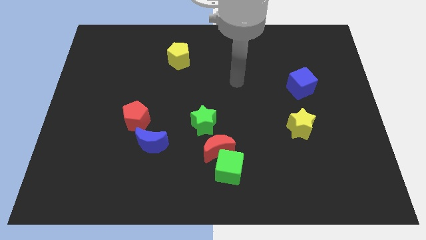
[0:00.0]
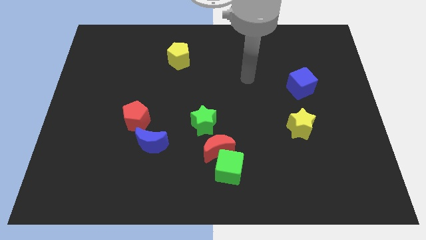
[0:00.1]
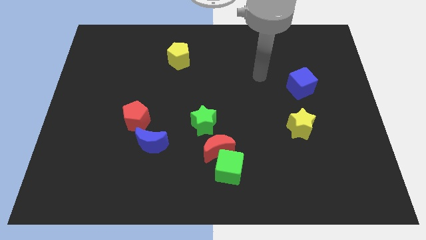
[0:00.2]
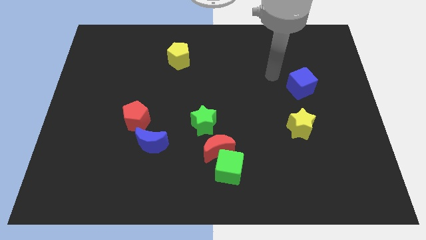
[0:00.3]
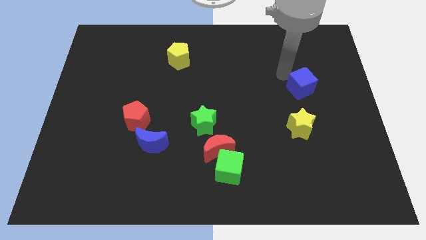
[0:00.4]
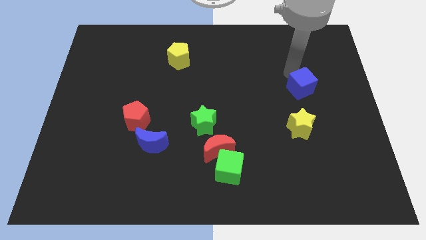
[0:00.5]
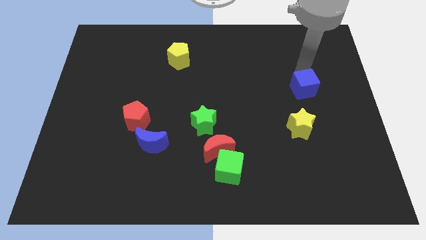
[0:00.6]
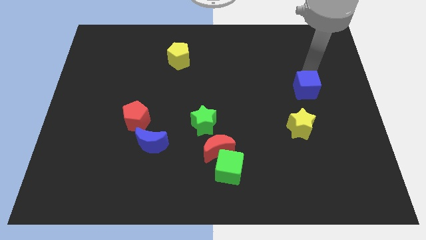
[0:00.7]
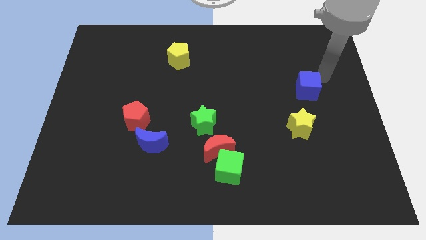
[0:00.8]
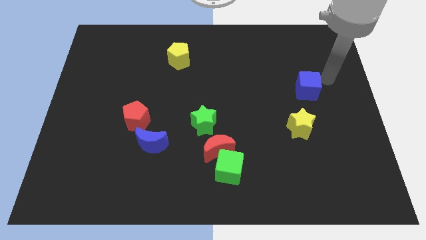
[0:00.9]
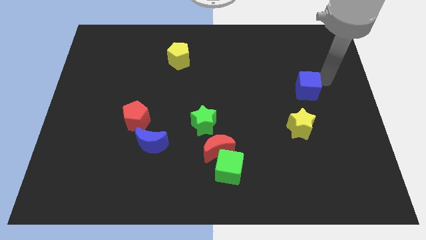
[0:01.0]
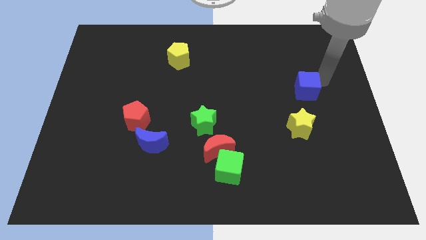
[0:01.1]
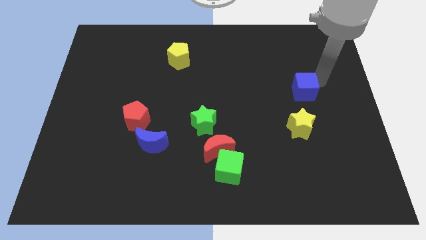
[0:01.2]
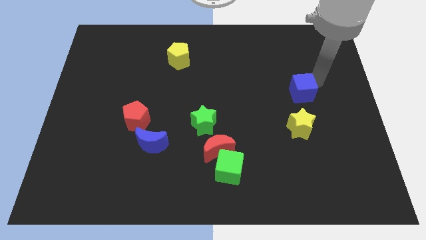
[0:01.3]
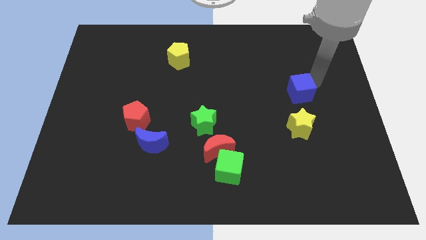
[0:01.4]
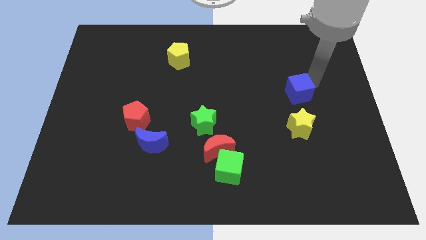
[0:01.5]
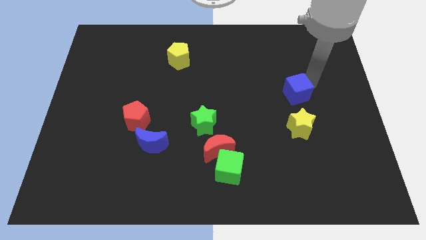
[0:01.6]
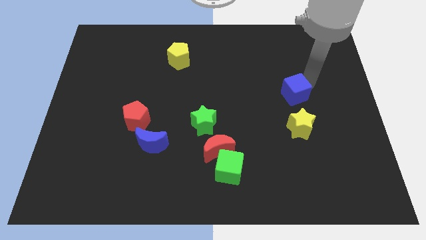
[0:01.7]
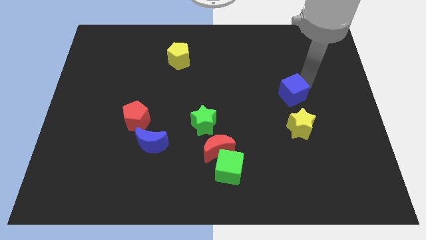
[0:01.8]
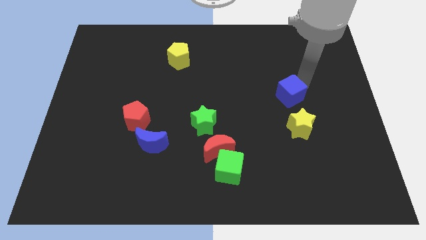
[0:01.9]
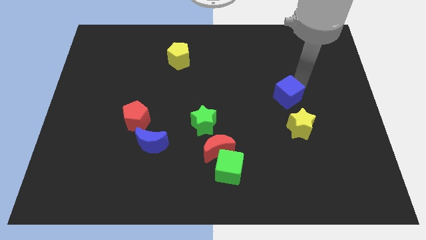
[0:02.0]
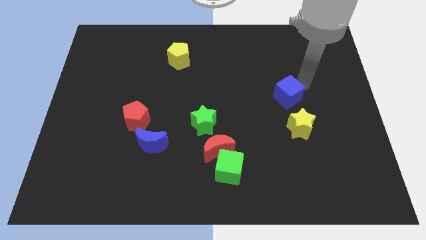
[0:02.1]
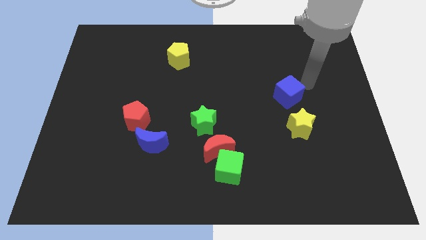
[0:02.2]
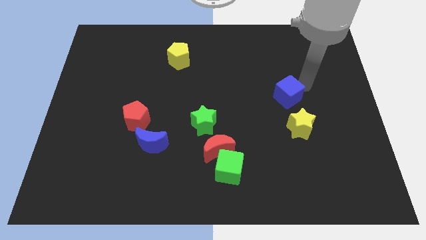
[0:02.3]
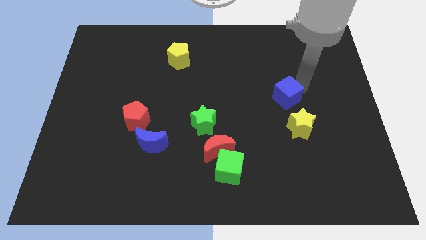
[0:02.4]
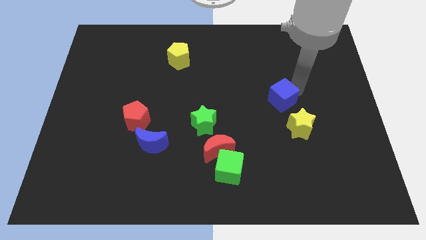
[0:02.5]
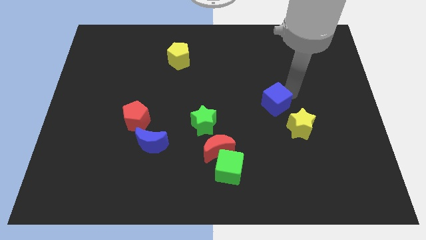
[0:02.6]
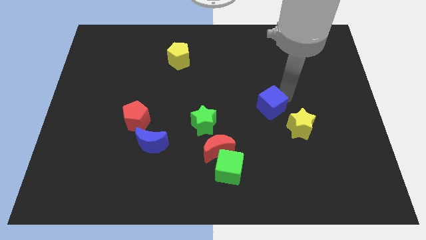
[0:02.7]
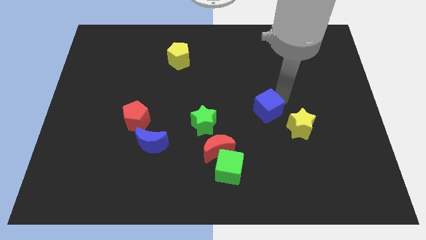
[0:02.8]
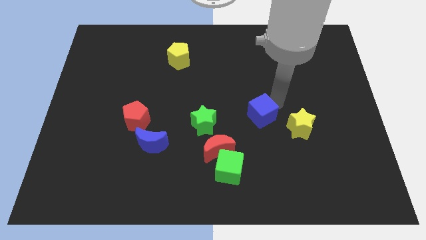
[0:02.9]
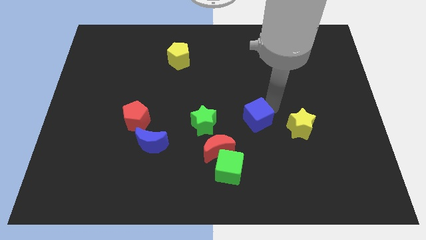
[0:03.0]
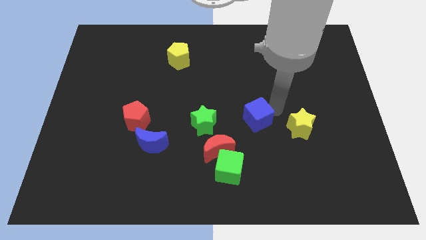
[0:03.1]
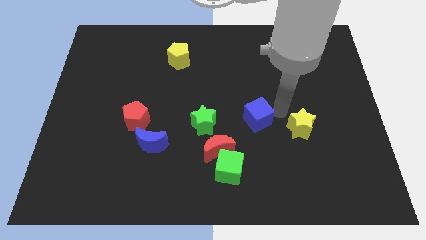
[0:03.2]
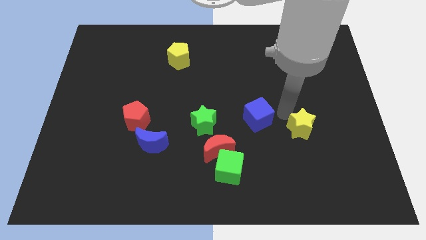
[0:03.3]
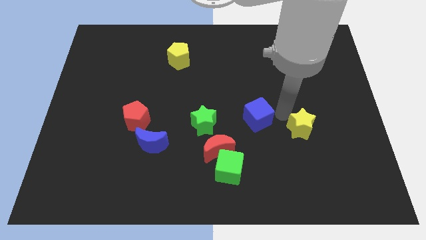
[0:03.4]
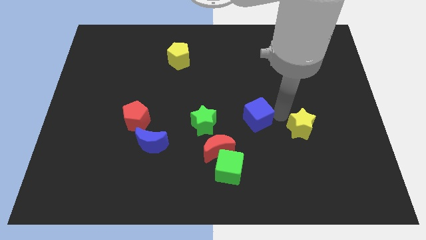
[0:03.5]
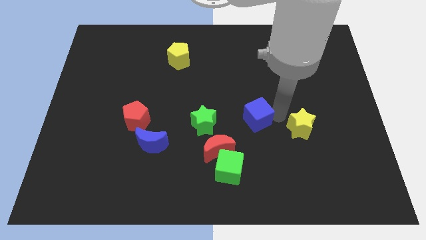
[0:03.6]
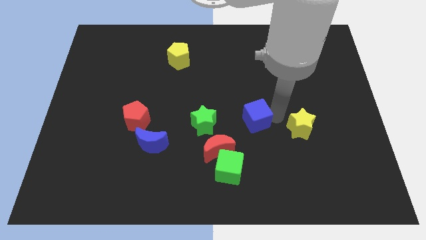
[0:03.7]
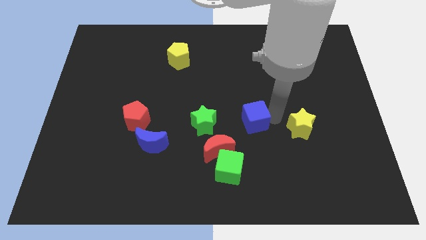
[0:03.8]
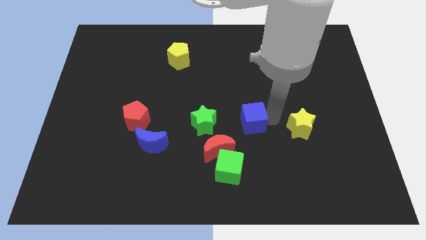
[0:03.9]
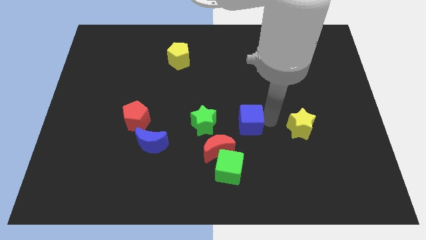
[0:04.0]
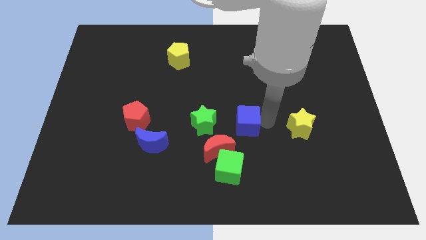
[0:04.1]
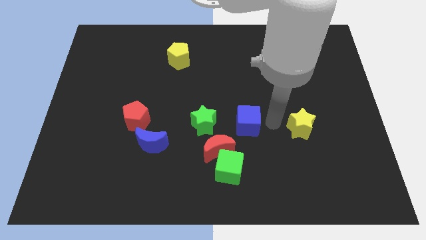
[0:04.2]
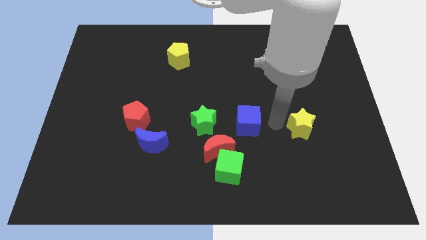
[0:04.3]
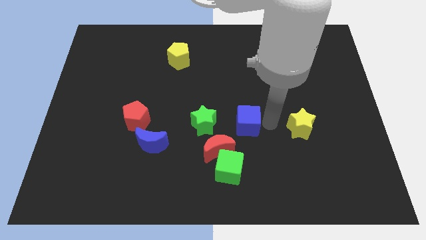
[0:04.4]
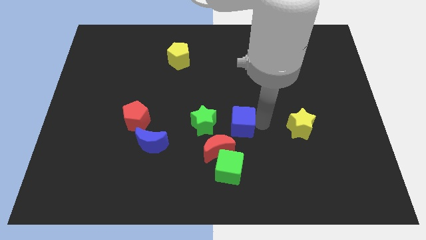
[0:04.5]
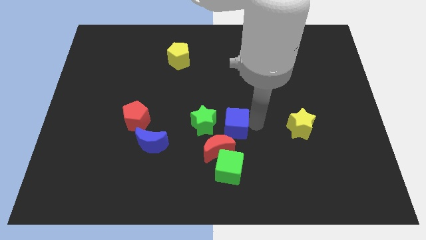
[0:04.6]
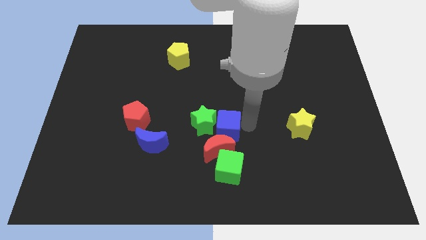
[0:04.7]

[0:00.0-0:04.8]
put the blue cube to the green star

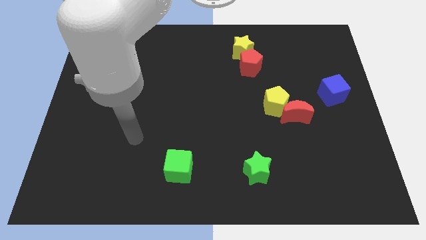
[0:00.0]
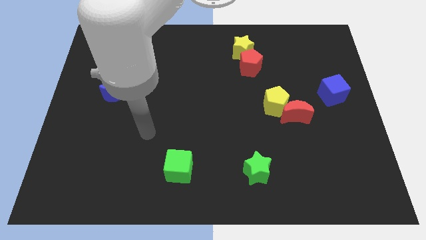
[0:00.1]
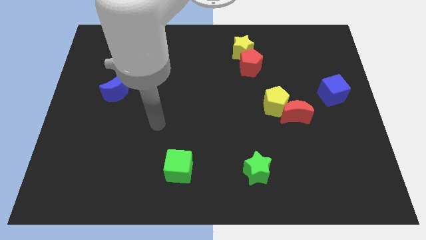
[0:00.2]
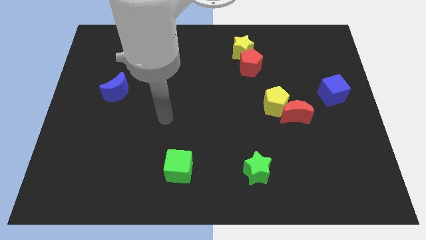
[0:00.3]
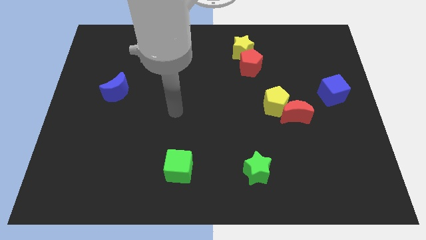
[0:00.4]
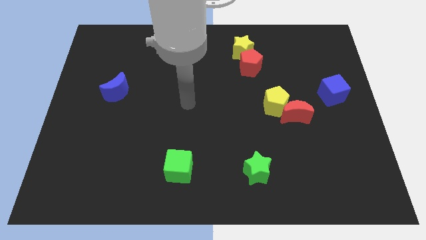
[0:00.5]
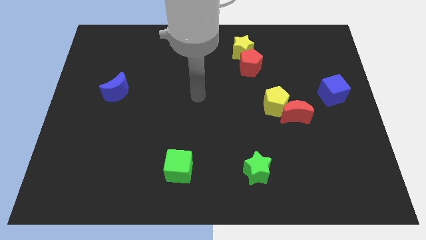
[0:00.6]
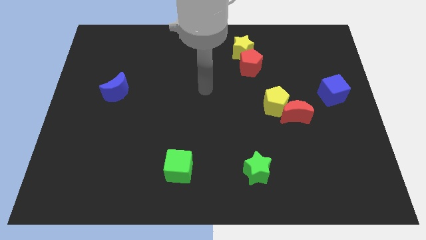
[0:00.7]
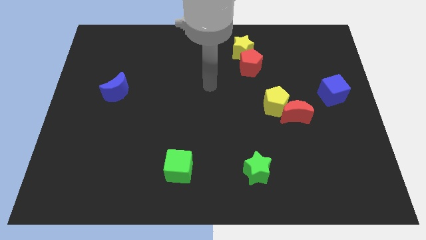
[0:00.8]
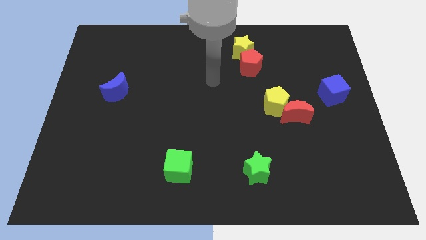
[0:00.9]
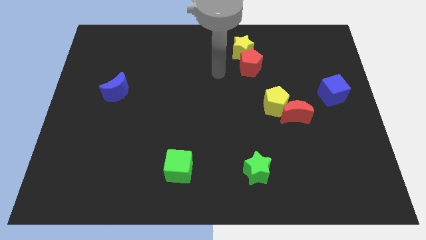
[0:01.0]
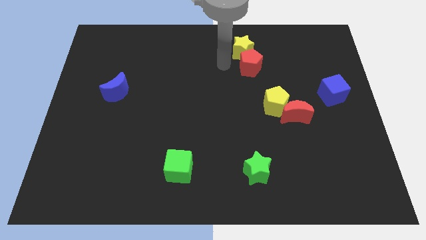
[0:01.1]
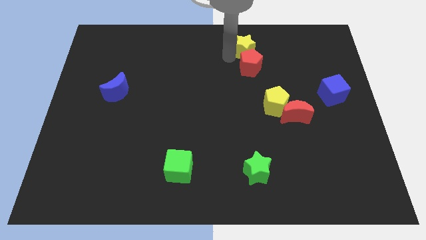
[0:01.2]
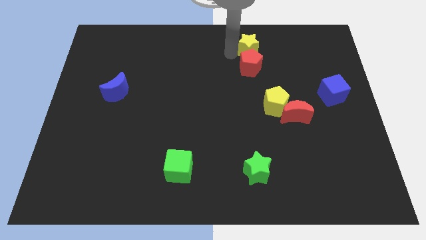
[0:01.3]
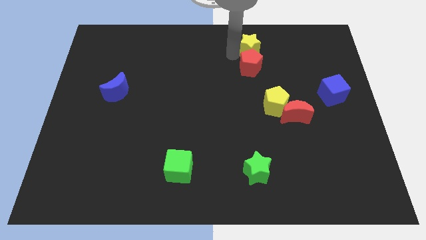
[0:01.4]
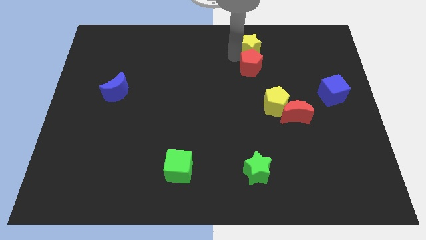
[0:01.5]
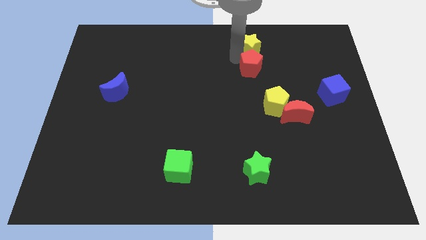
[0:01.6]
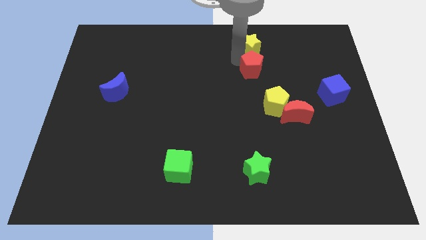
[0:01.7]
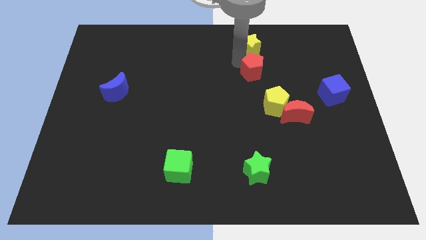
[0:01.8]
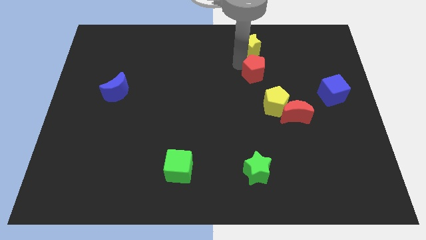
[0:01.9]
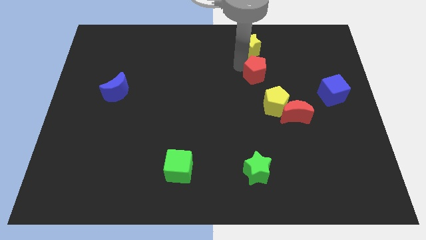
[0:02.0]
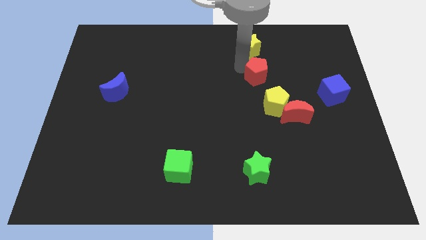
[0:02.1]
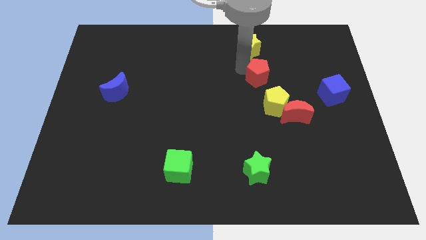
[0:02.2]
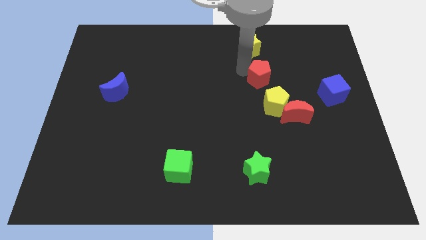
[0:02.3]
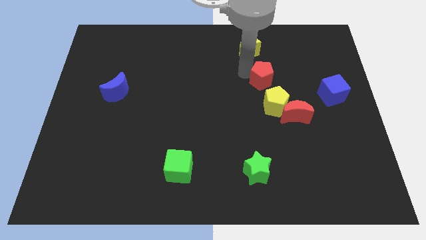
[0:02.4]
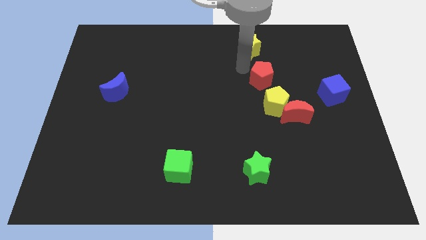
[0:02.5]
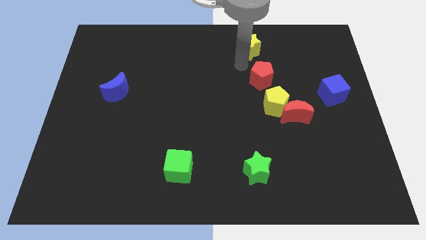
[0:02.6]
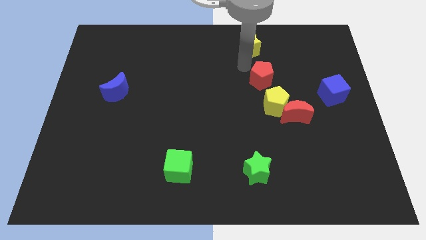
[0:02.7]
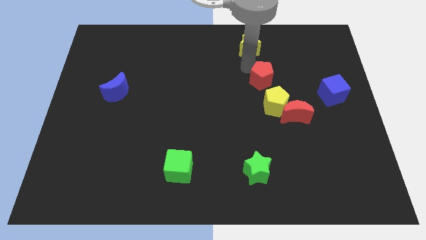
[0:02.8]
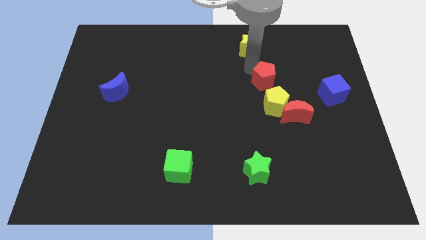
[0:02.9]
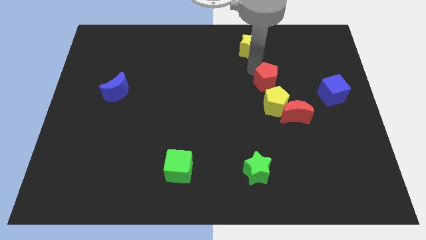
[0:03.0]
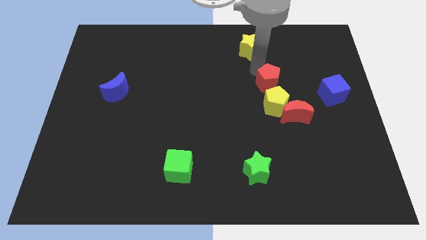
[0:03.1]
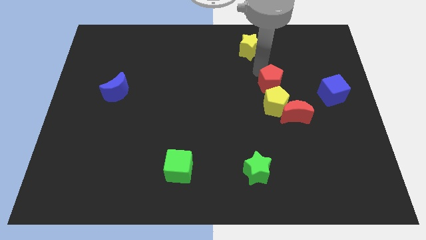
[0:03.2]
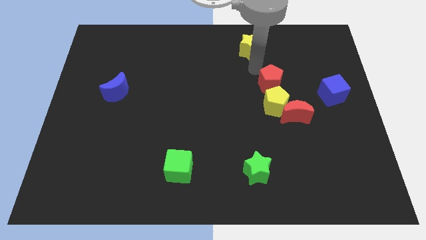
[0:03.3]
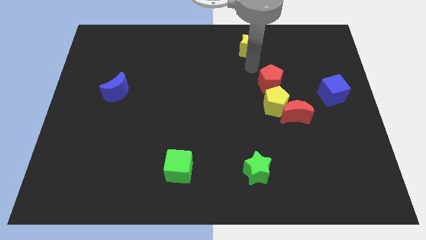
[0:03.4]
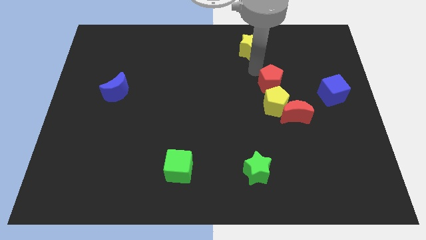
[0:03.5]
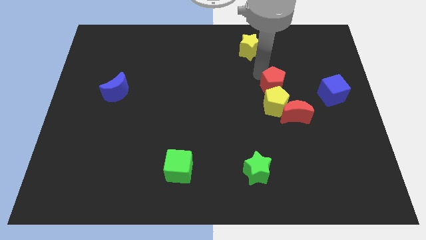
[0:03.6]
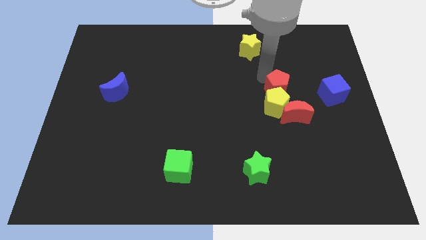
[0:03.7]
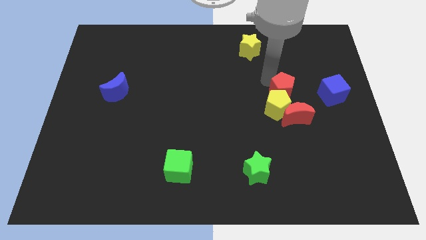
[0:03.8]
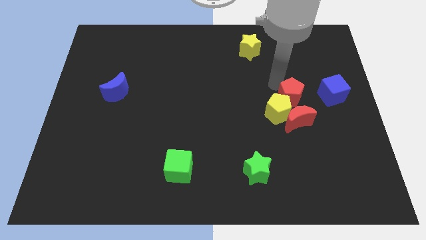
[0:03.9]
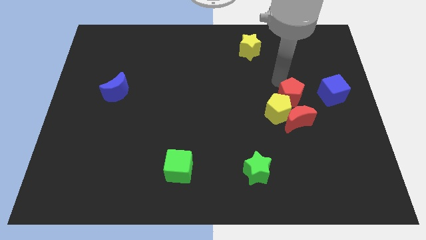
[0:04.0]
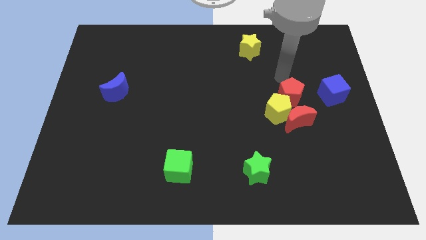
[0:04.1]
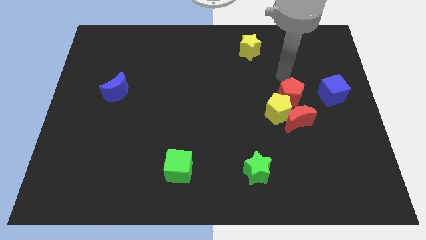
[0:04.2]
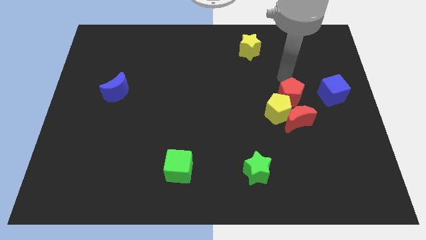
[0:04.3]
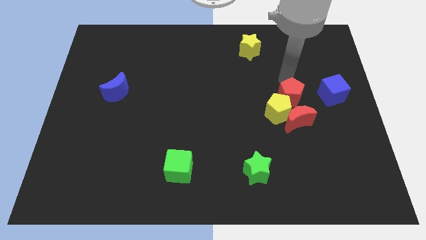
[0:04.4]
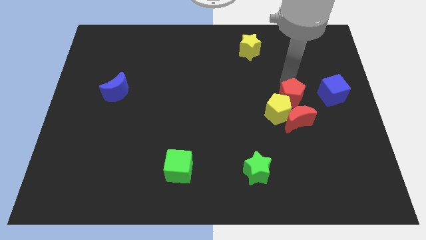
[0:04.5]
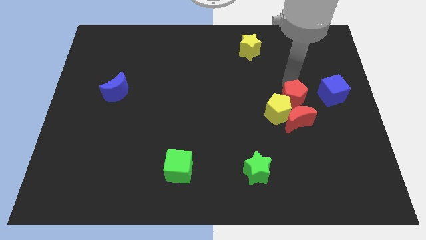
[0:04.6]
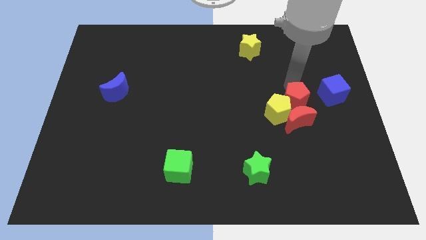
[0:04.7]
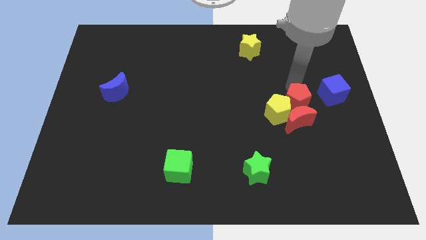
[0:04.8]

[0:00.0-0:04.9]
push the red pentagon to the red moon
